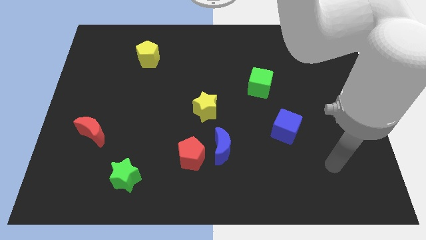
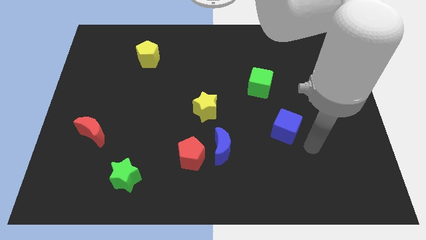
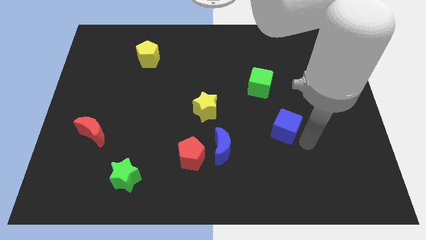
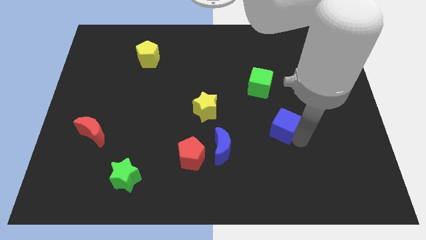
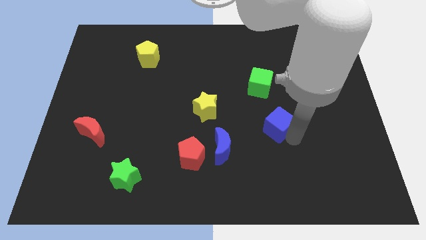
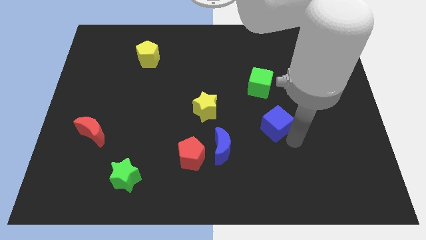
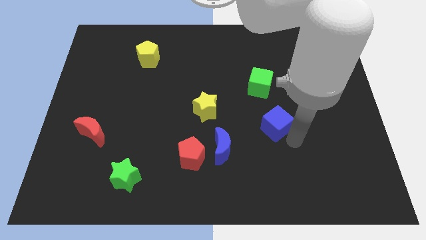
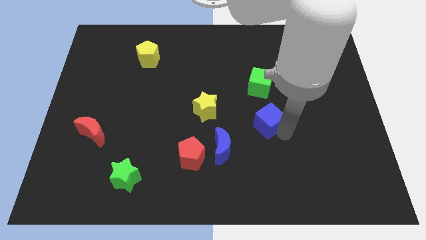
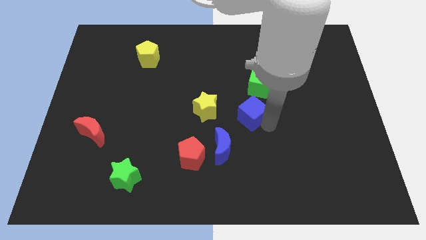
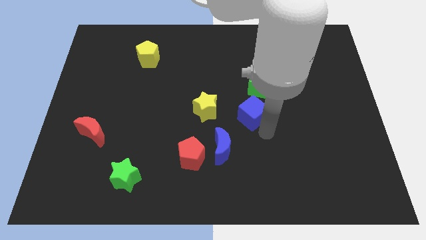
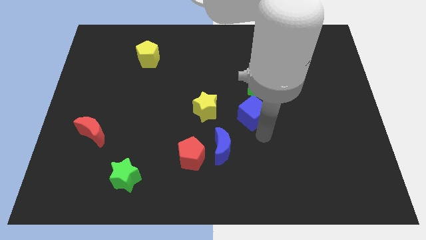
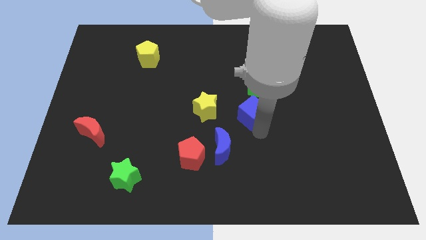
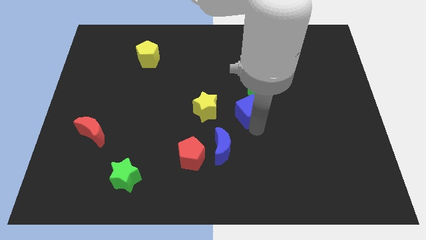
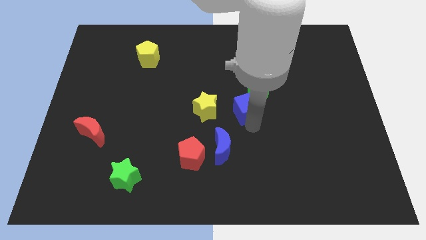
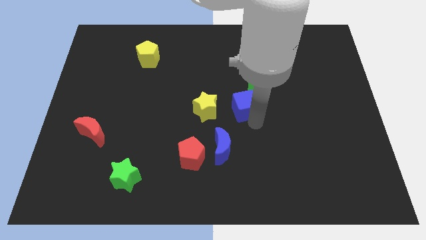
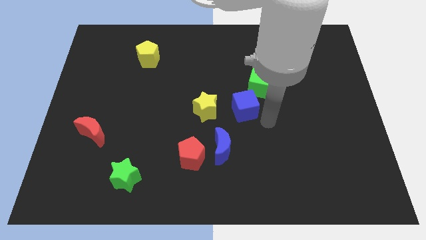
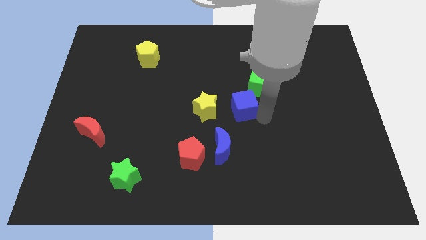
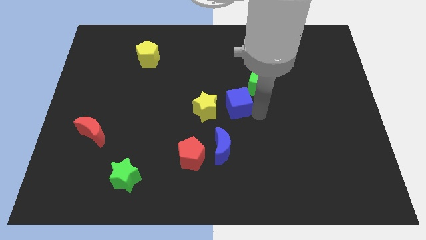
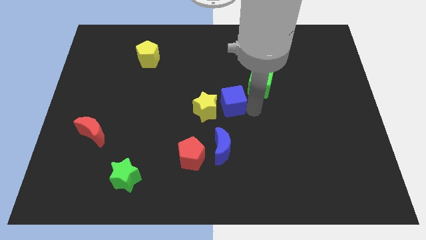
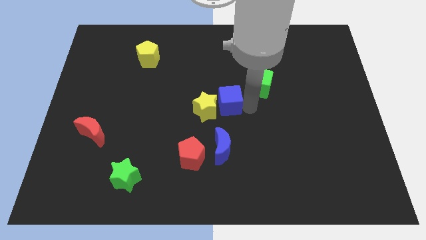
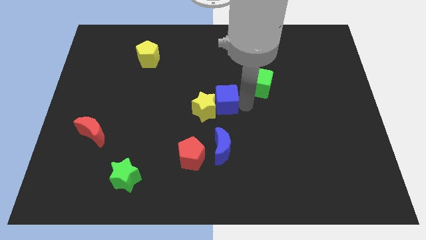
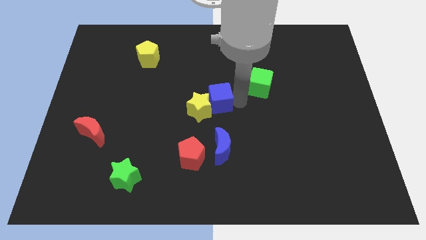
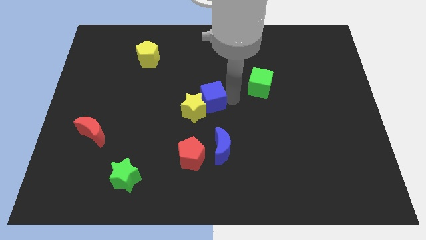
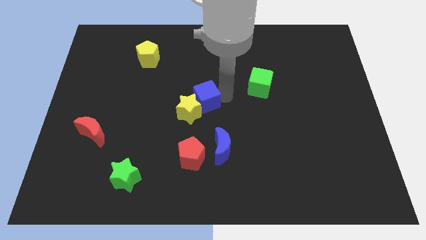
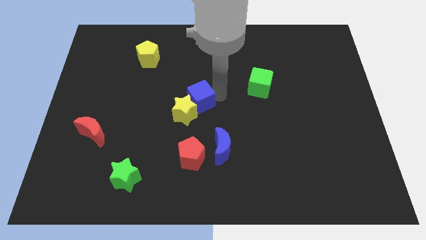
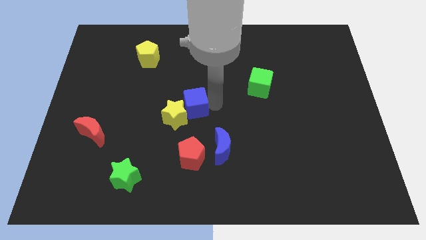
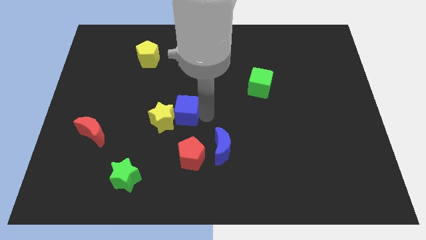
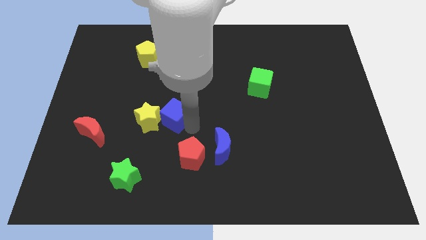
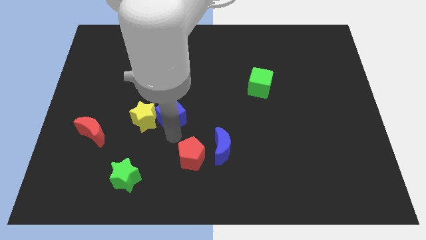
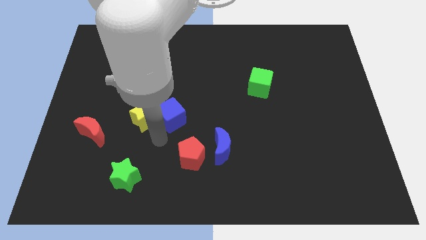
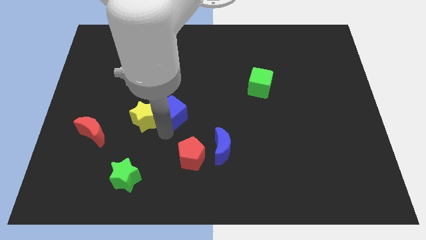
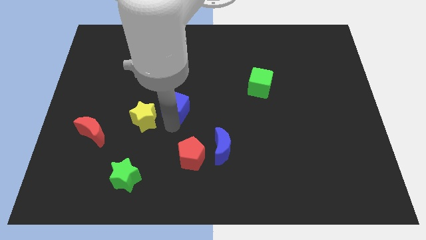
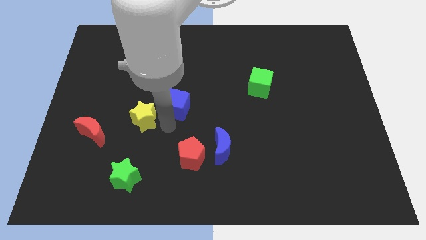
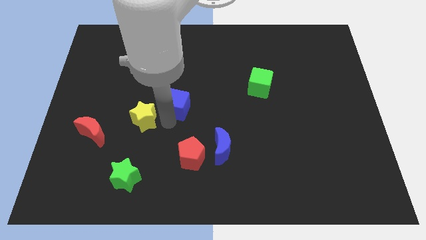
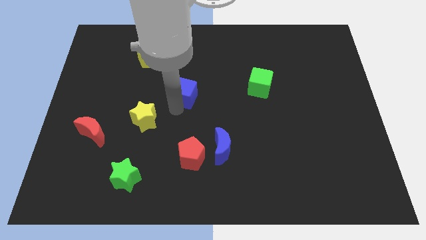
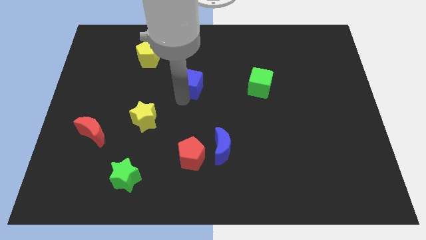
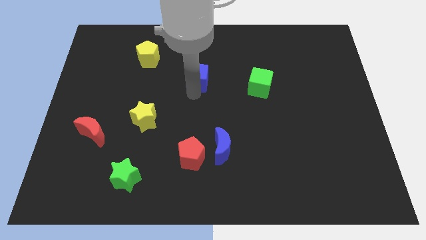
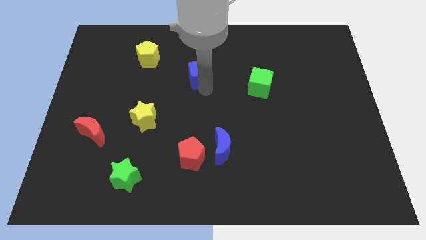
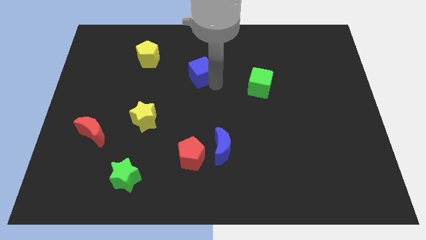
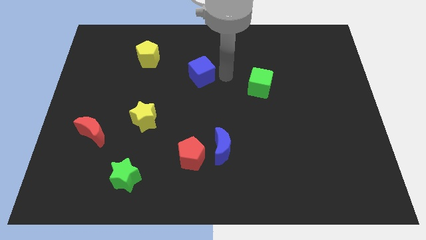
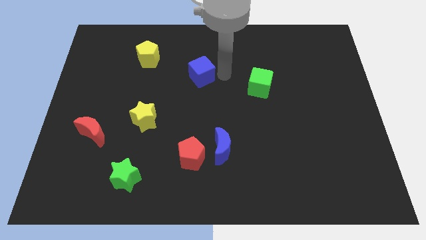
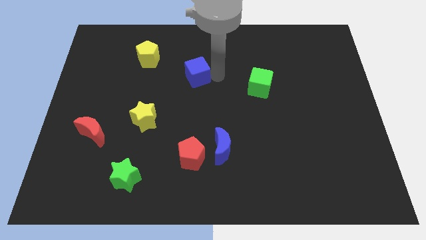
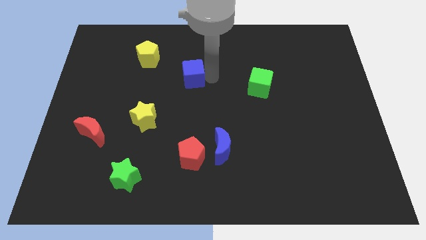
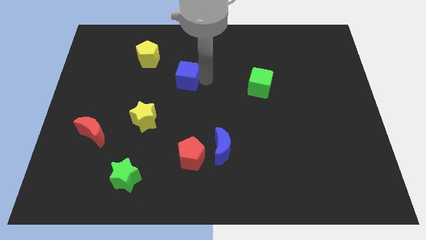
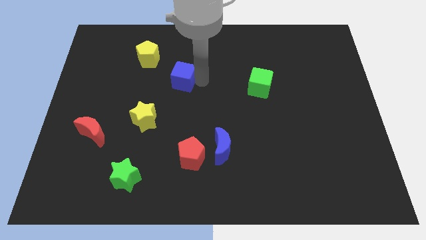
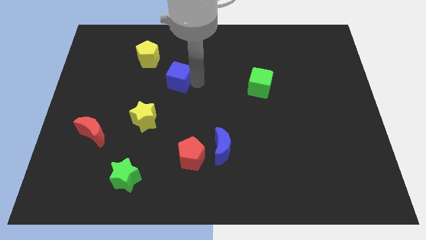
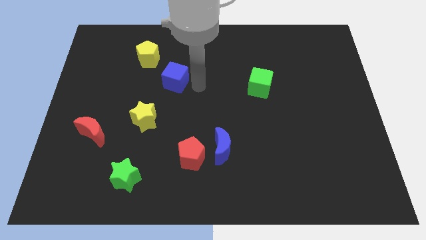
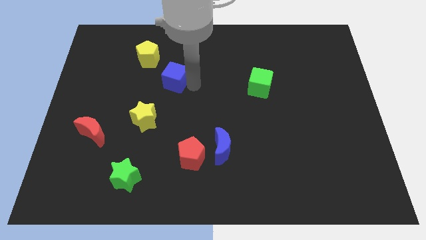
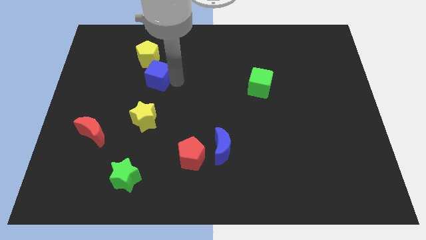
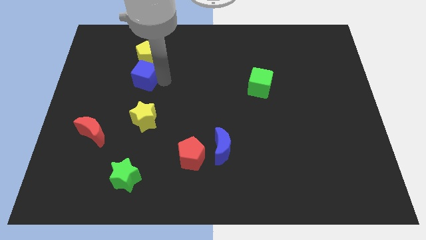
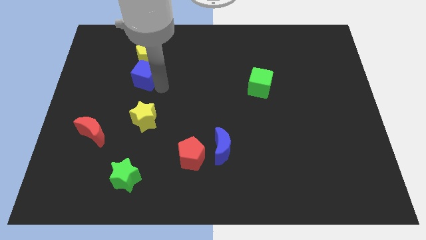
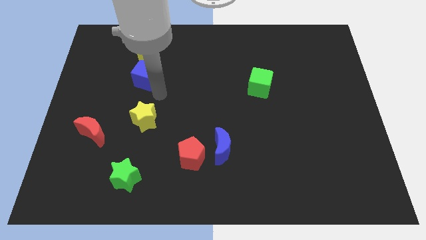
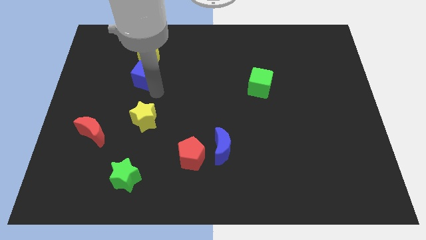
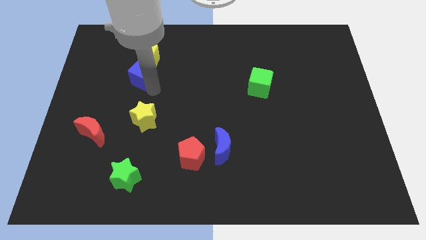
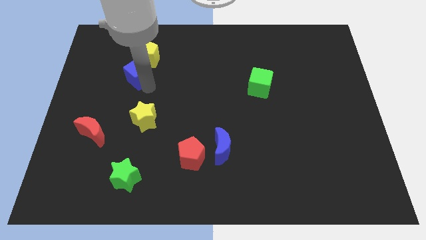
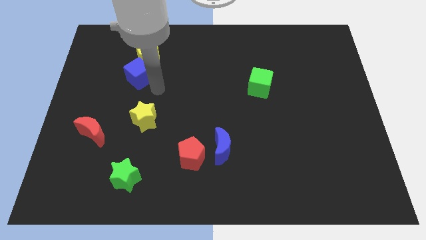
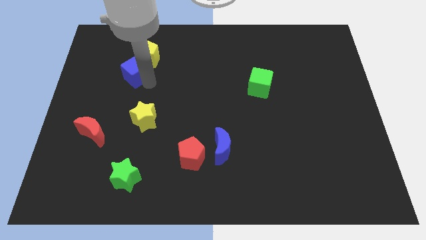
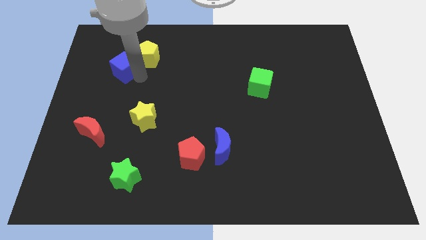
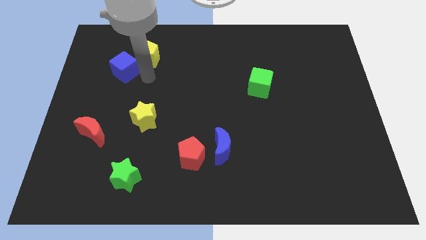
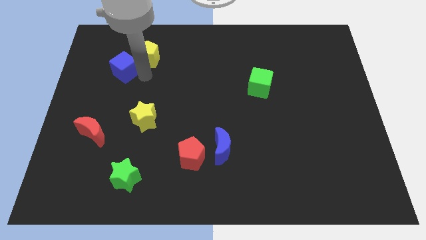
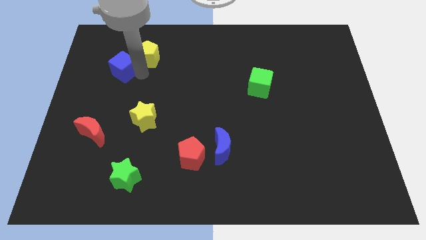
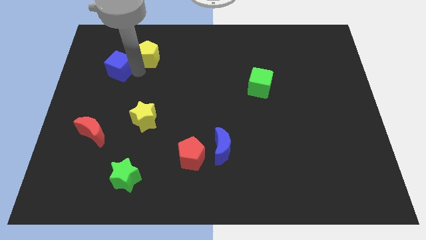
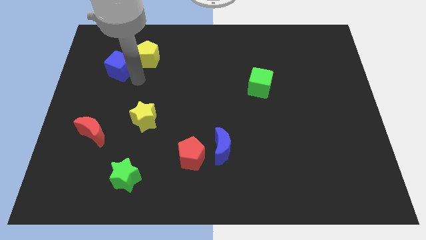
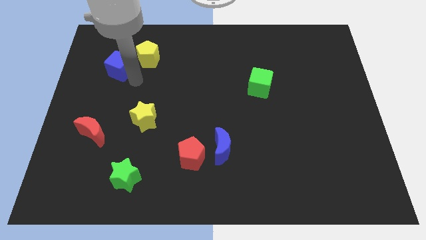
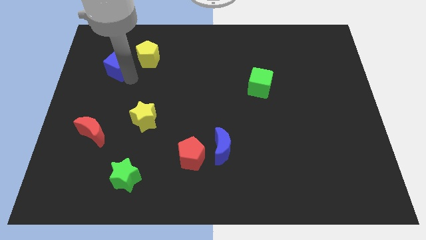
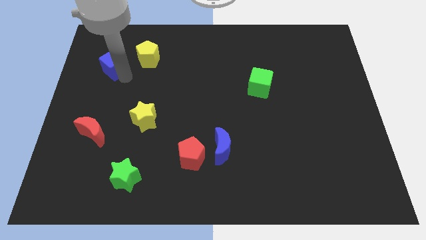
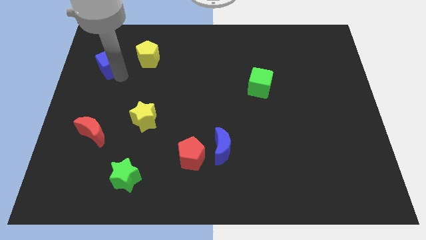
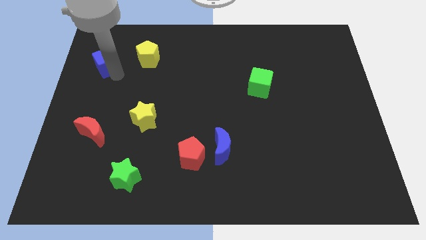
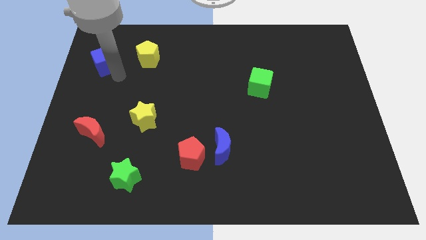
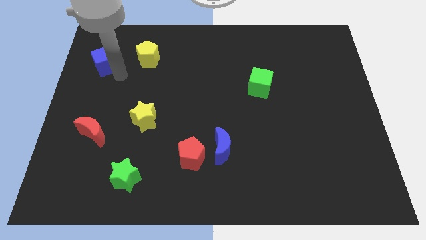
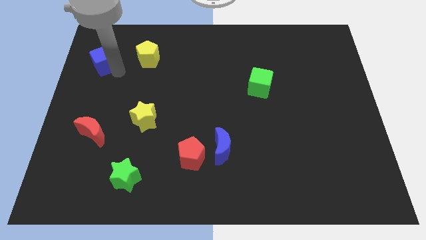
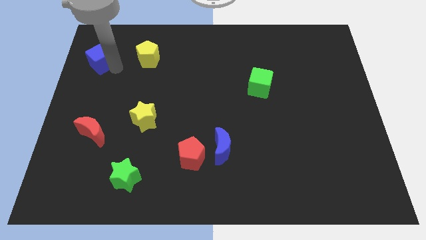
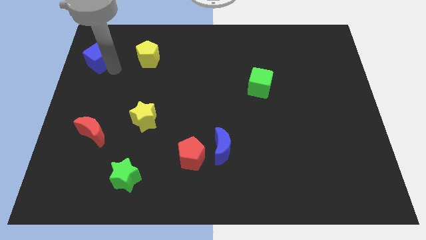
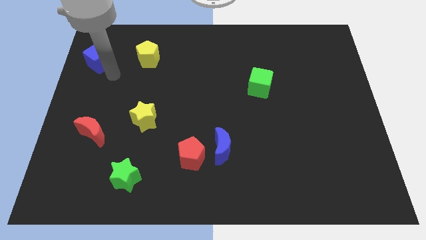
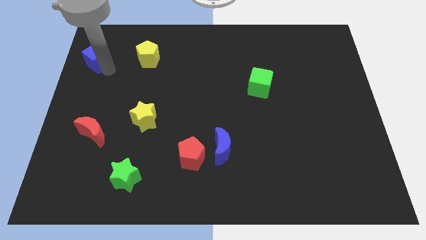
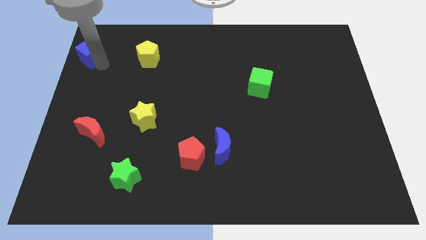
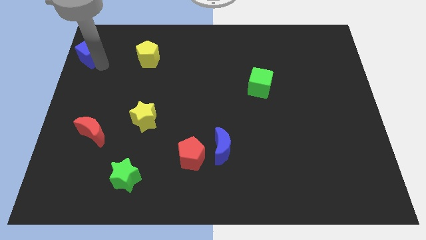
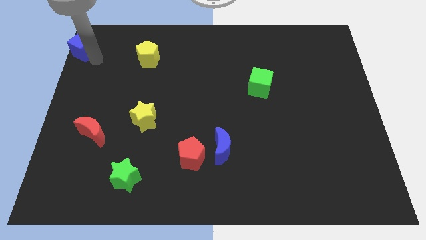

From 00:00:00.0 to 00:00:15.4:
slide the blue cube to the top left

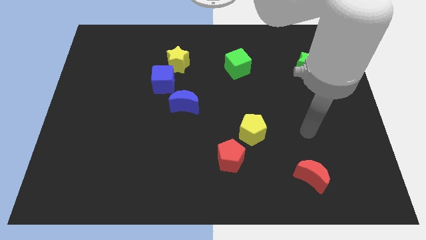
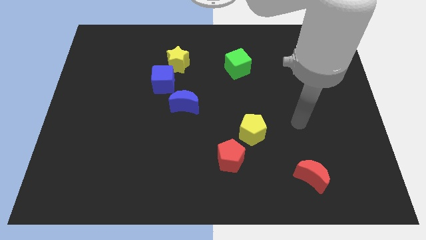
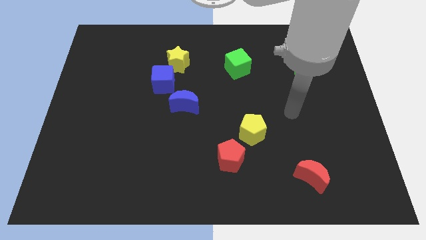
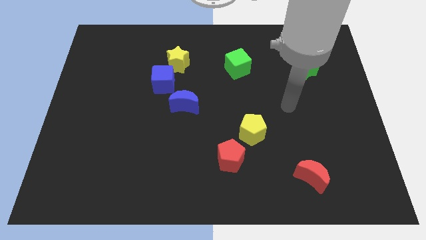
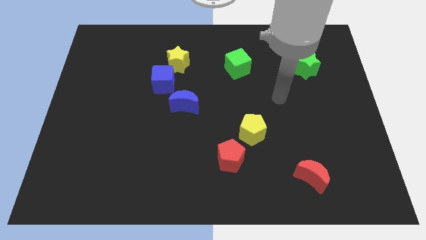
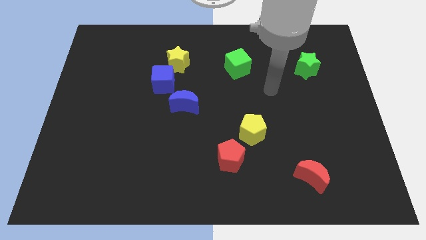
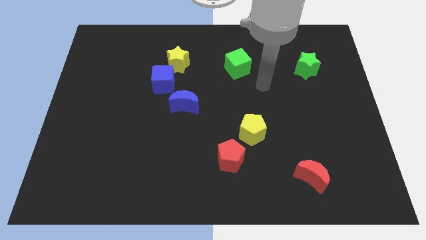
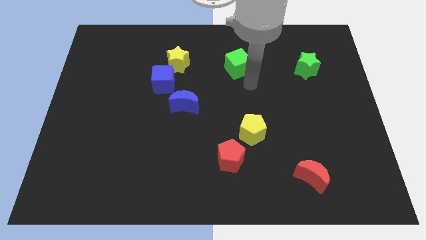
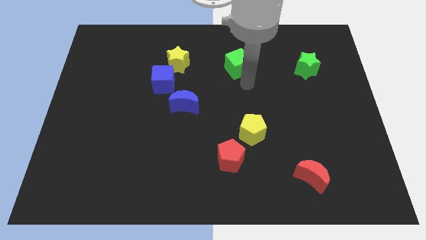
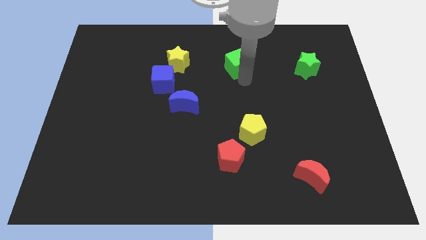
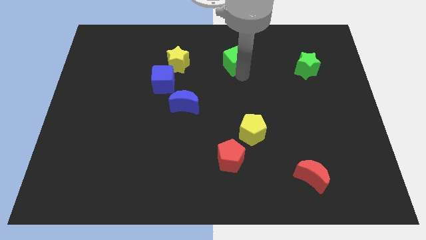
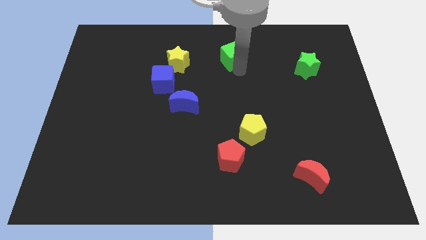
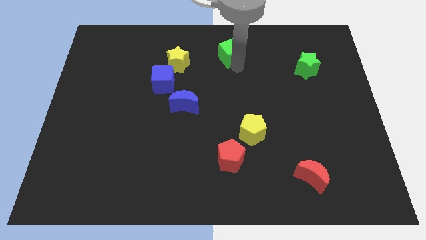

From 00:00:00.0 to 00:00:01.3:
slide the green cube to the towards your base
